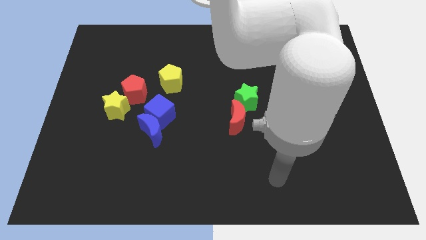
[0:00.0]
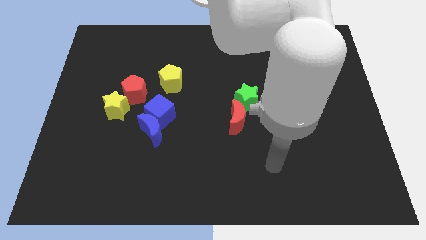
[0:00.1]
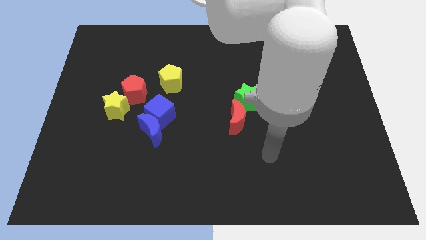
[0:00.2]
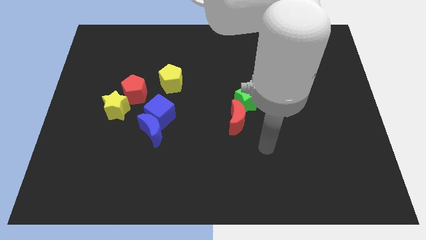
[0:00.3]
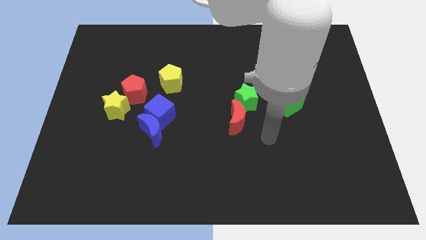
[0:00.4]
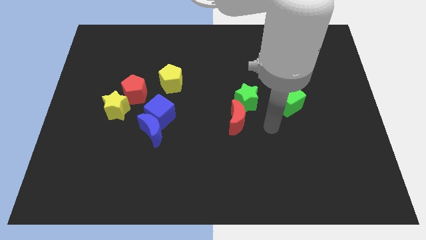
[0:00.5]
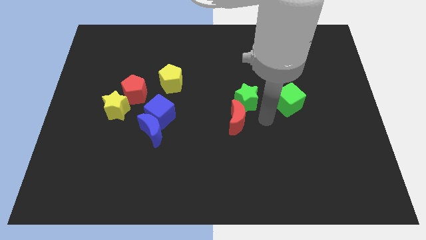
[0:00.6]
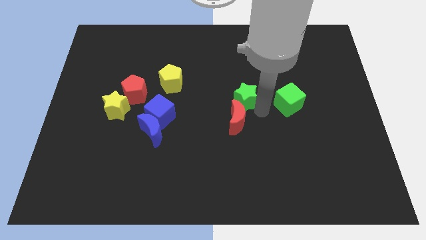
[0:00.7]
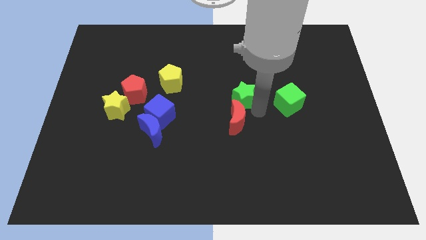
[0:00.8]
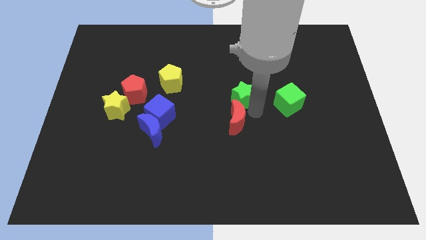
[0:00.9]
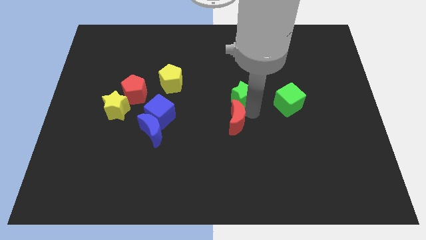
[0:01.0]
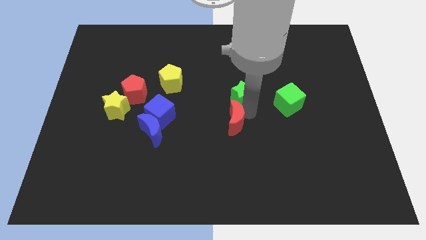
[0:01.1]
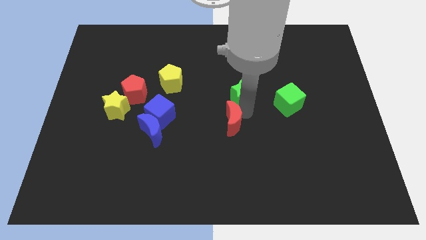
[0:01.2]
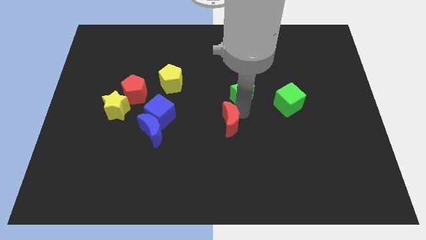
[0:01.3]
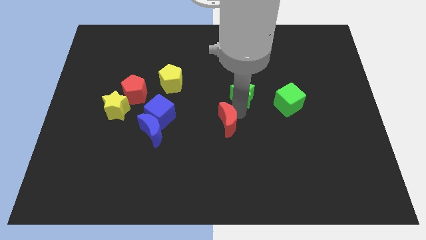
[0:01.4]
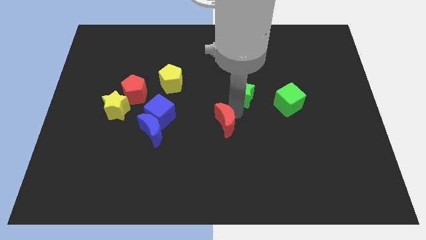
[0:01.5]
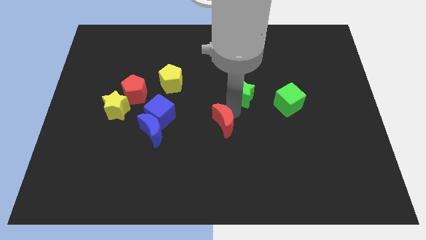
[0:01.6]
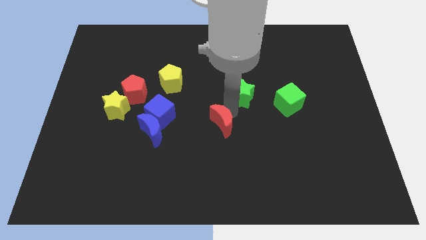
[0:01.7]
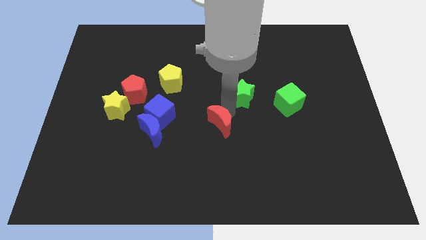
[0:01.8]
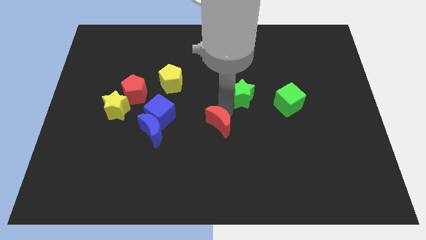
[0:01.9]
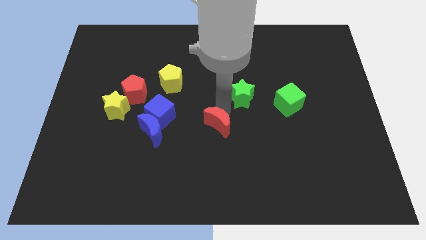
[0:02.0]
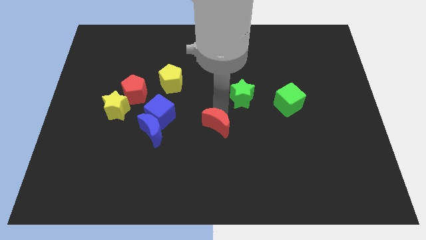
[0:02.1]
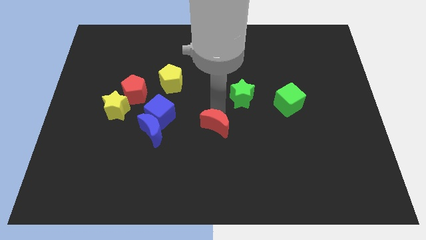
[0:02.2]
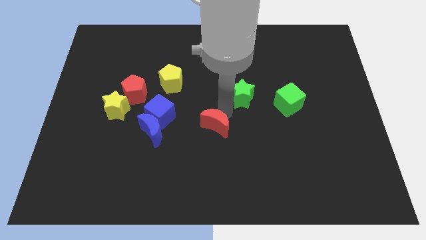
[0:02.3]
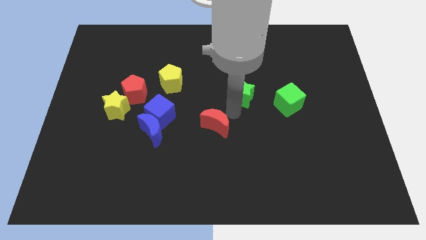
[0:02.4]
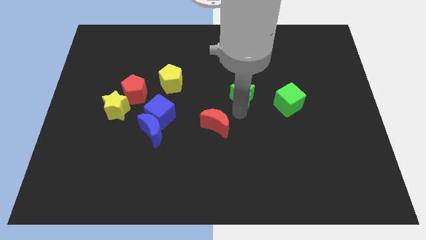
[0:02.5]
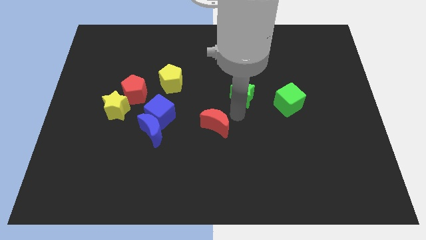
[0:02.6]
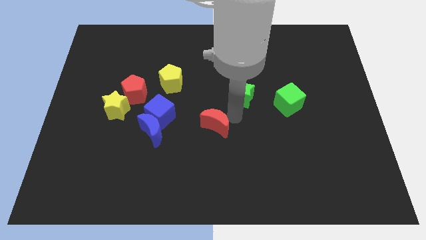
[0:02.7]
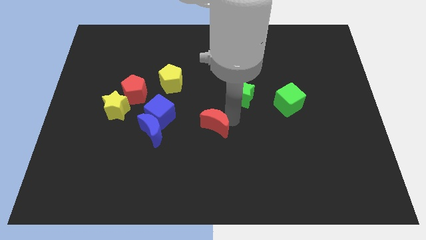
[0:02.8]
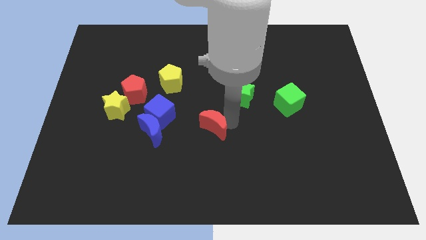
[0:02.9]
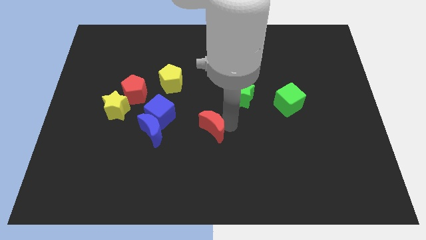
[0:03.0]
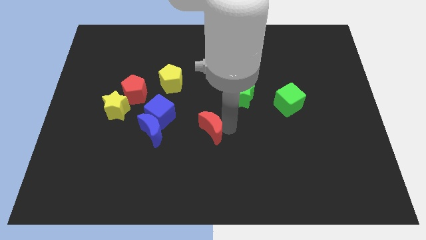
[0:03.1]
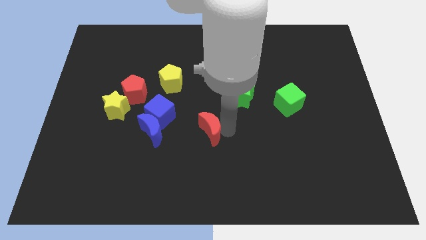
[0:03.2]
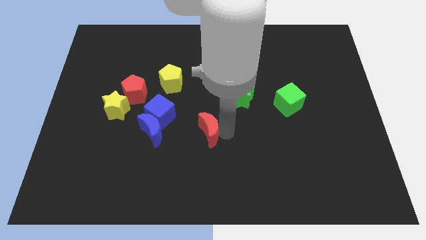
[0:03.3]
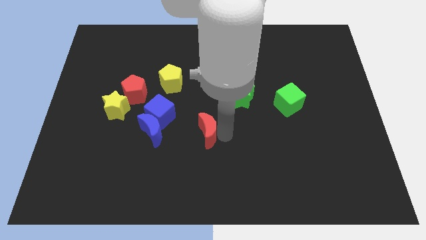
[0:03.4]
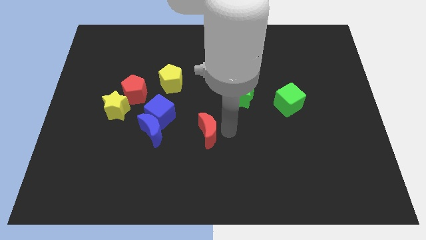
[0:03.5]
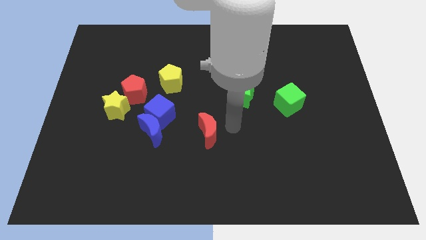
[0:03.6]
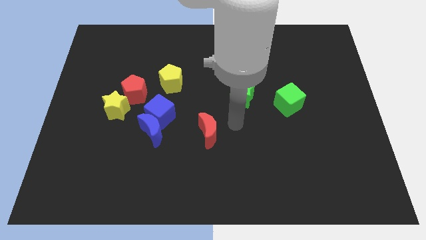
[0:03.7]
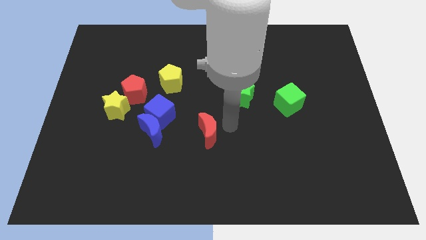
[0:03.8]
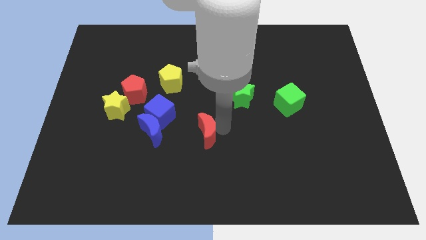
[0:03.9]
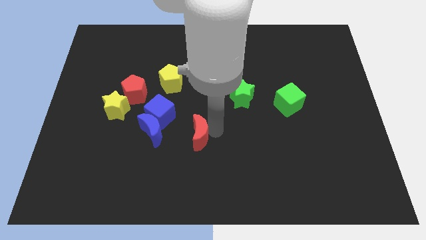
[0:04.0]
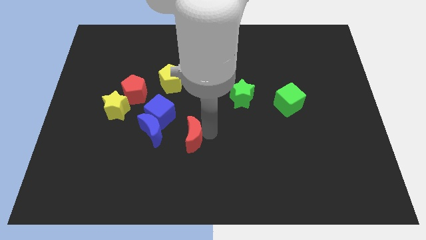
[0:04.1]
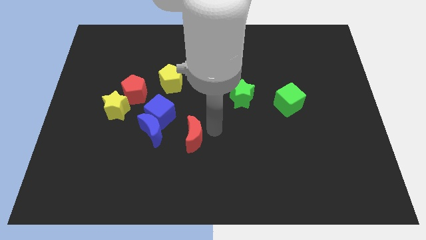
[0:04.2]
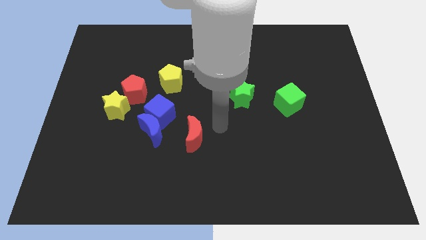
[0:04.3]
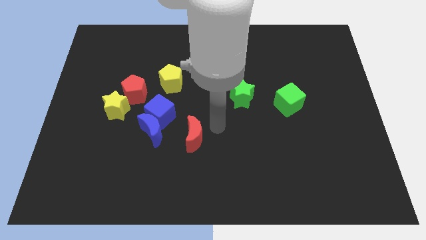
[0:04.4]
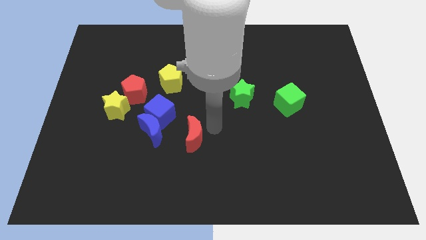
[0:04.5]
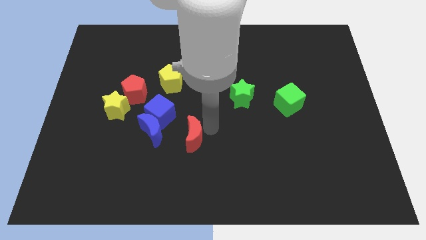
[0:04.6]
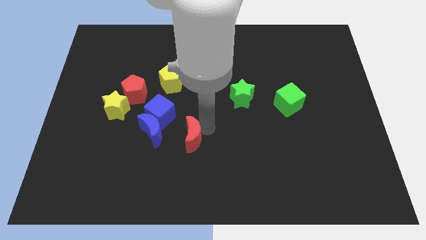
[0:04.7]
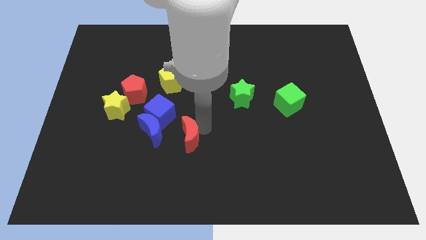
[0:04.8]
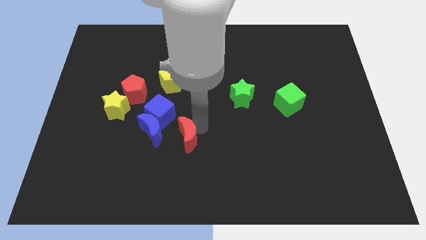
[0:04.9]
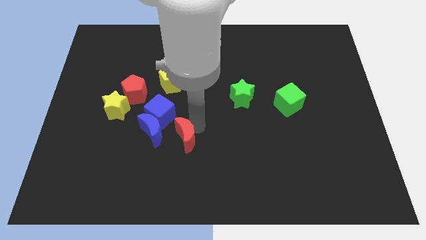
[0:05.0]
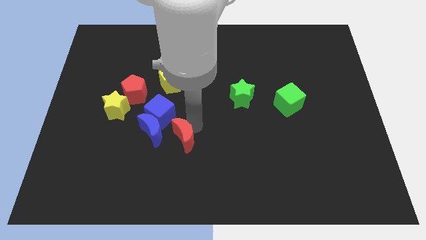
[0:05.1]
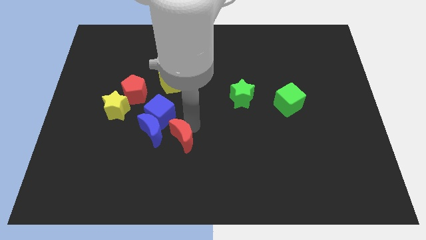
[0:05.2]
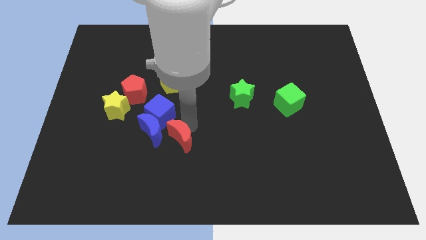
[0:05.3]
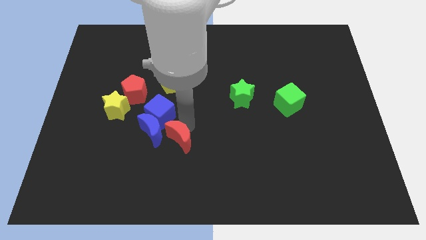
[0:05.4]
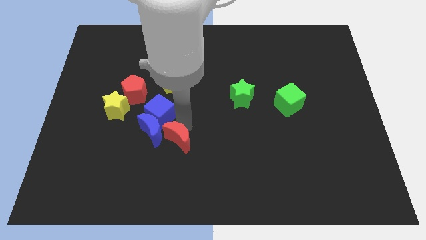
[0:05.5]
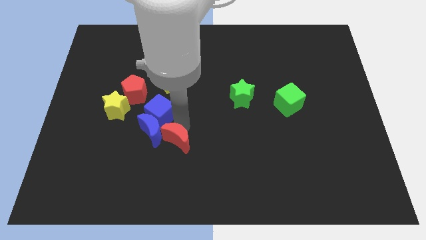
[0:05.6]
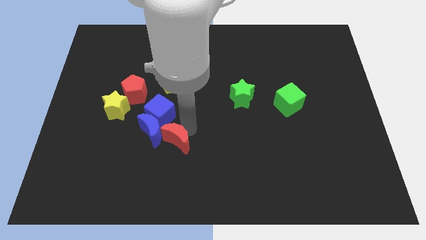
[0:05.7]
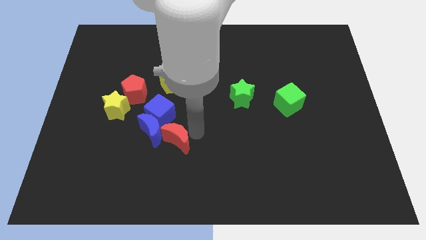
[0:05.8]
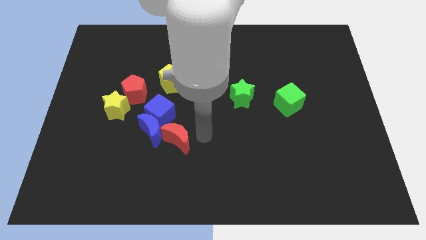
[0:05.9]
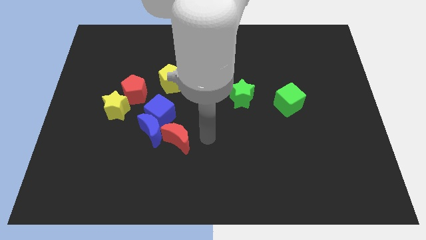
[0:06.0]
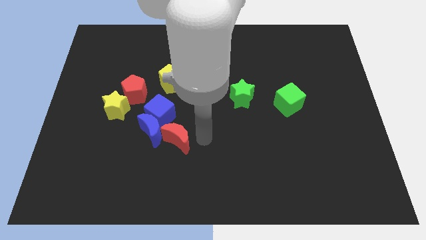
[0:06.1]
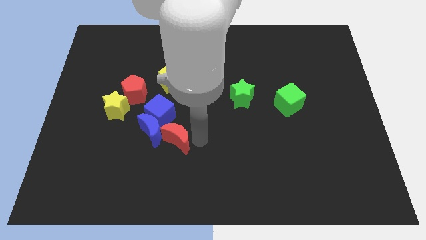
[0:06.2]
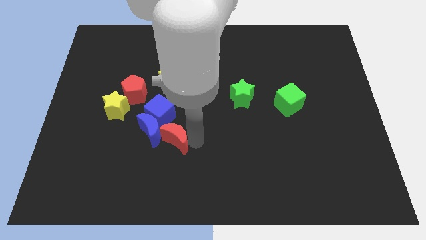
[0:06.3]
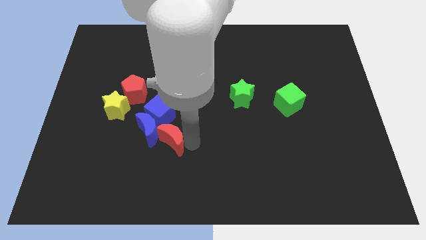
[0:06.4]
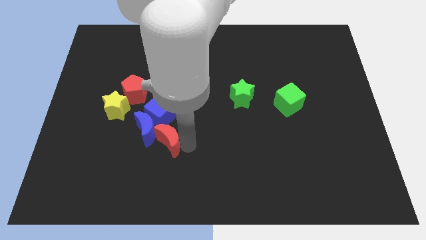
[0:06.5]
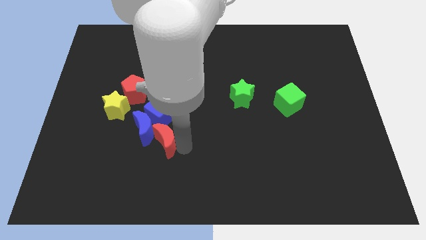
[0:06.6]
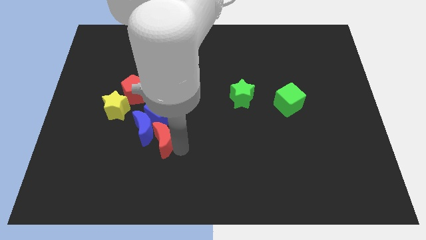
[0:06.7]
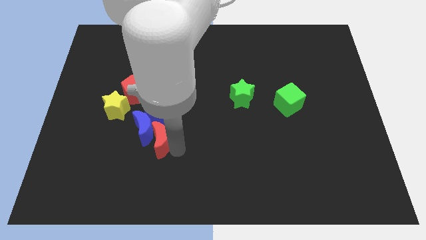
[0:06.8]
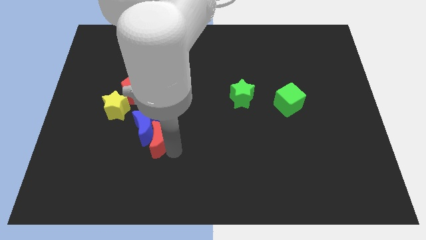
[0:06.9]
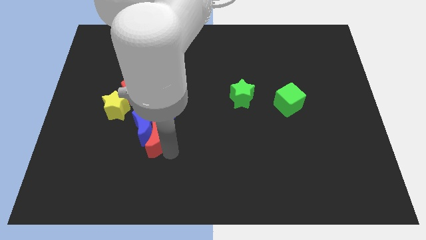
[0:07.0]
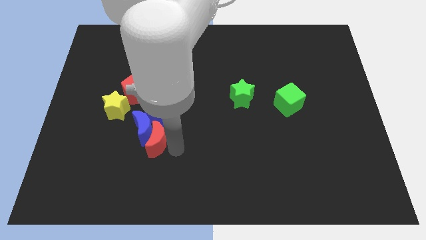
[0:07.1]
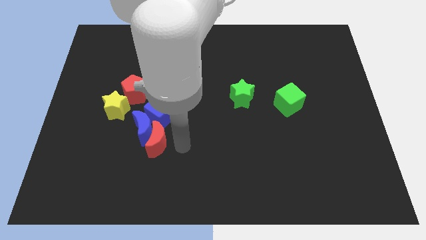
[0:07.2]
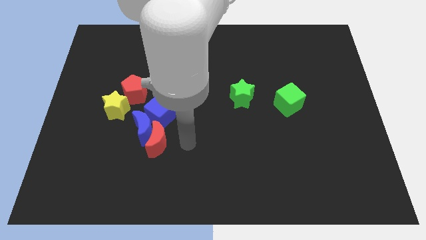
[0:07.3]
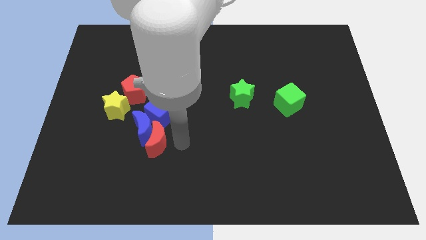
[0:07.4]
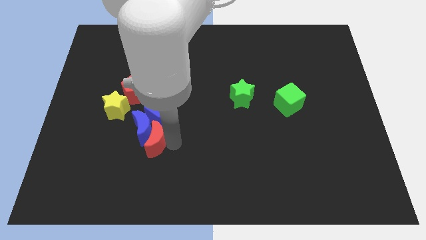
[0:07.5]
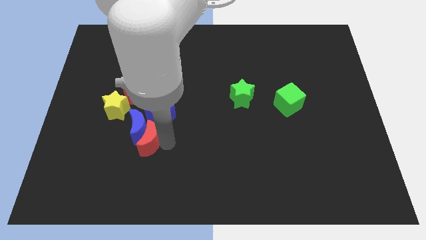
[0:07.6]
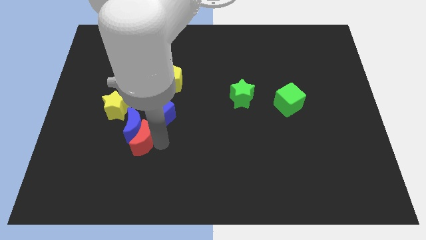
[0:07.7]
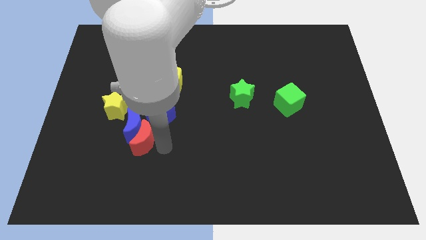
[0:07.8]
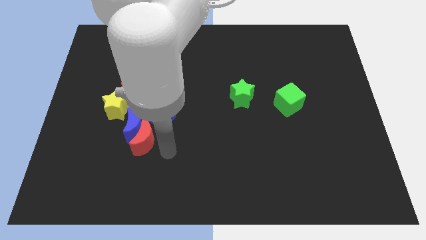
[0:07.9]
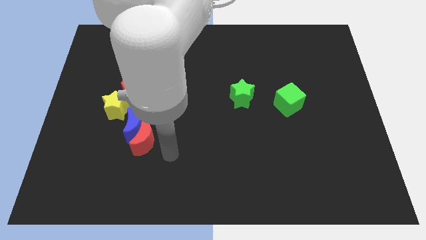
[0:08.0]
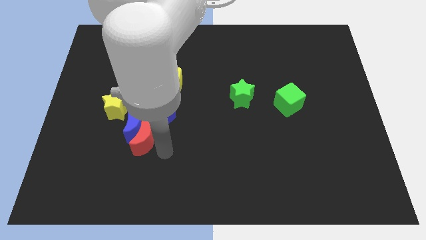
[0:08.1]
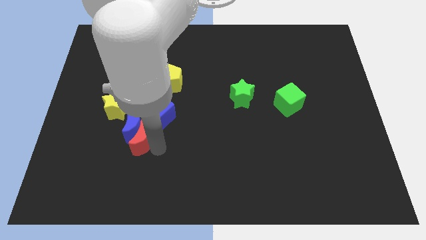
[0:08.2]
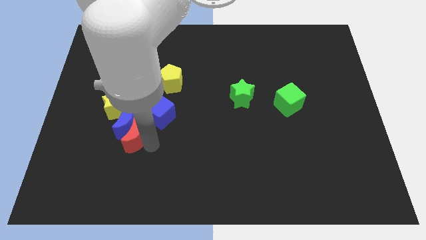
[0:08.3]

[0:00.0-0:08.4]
push the red moon left
